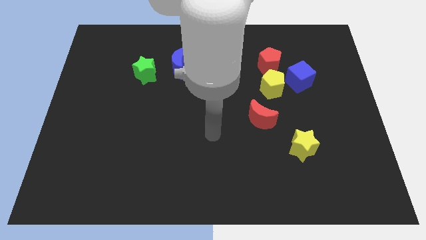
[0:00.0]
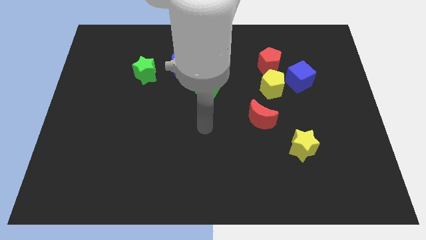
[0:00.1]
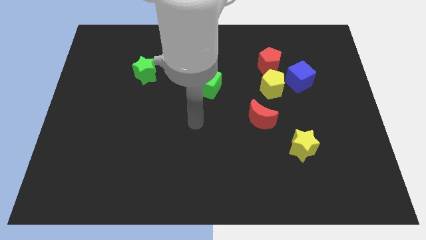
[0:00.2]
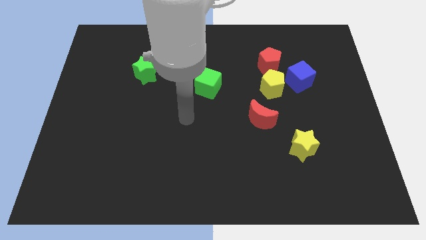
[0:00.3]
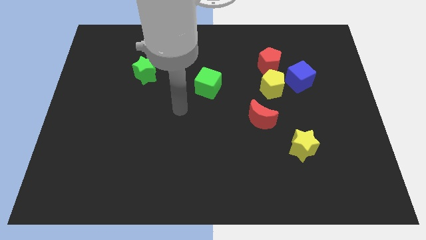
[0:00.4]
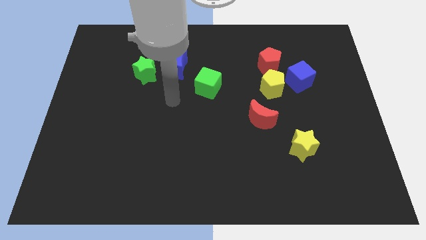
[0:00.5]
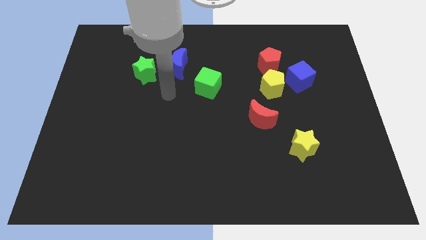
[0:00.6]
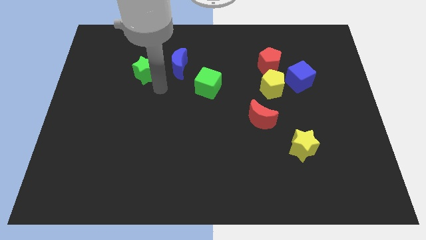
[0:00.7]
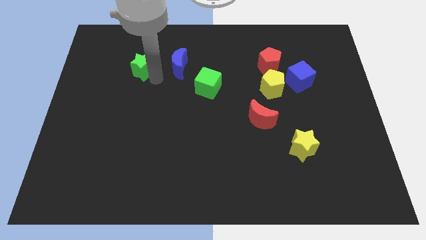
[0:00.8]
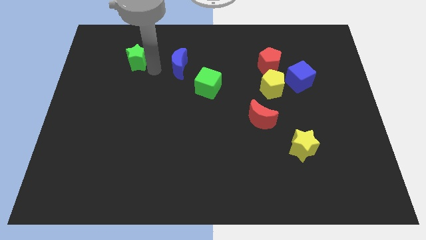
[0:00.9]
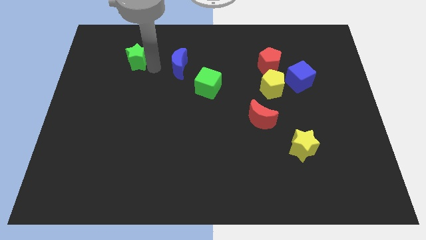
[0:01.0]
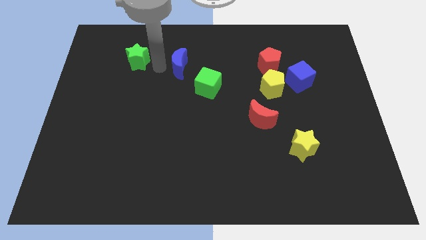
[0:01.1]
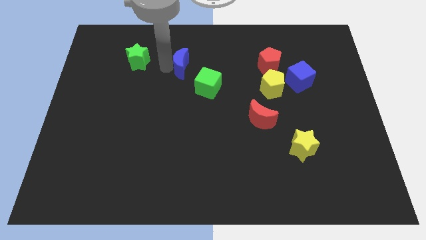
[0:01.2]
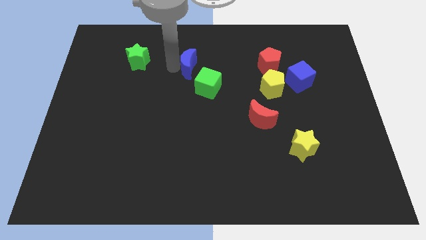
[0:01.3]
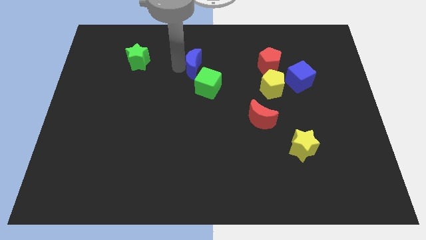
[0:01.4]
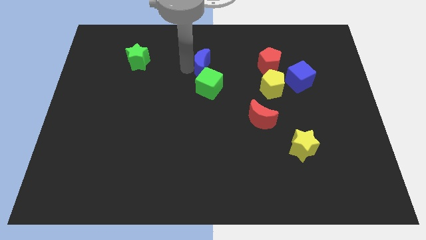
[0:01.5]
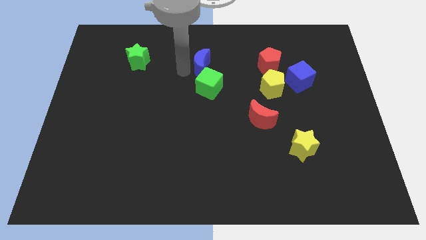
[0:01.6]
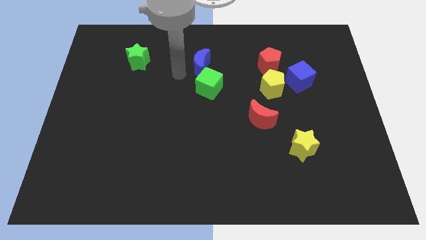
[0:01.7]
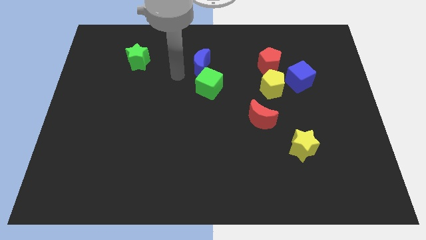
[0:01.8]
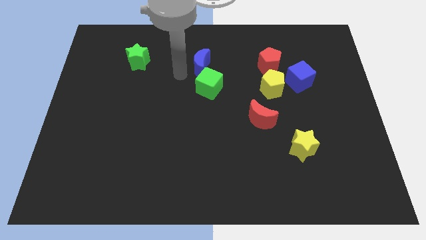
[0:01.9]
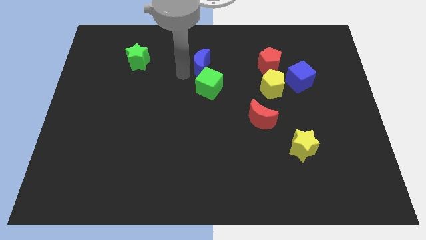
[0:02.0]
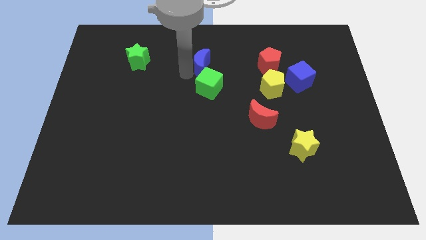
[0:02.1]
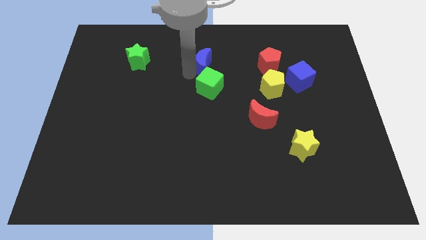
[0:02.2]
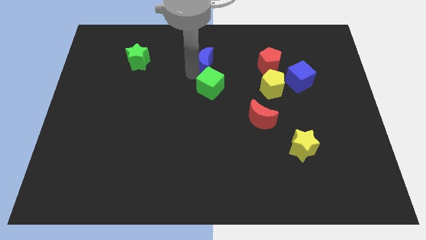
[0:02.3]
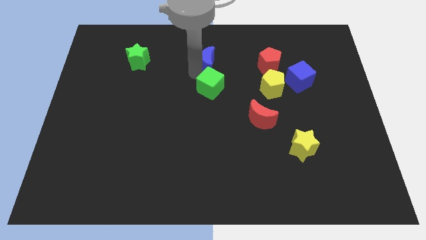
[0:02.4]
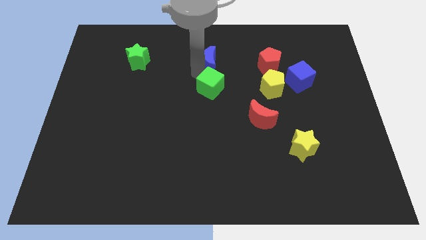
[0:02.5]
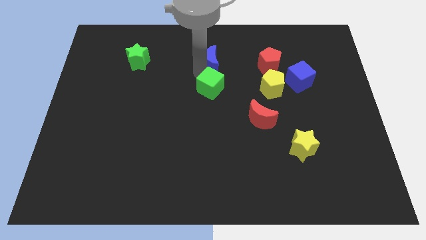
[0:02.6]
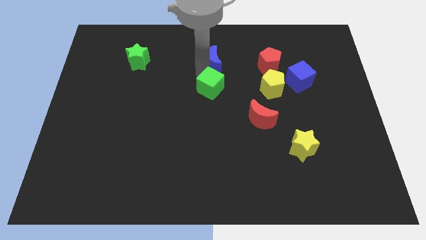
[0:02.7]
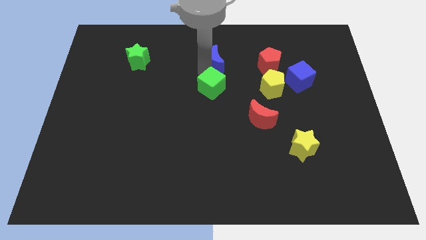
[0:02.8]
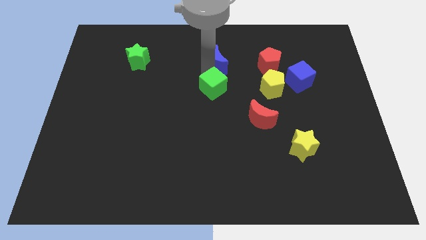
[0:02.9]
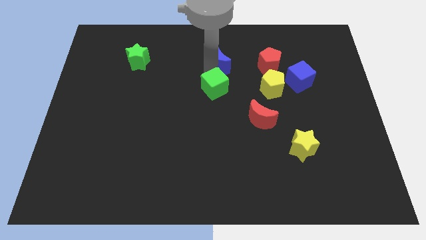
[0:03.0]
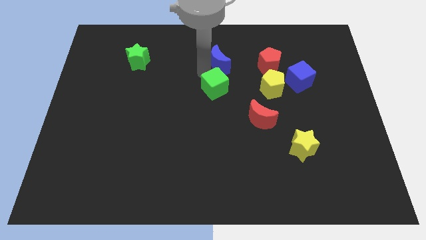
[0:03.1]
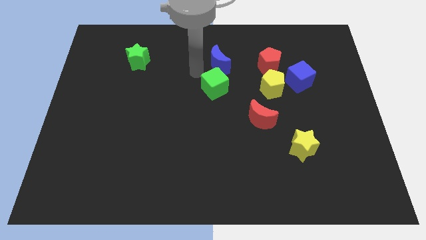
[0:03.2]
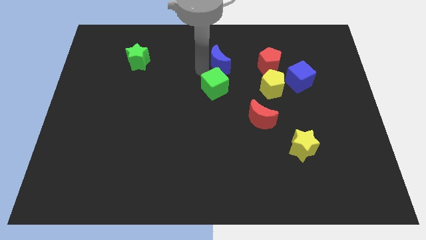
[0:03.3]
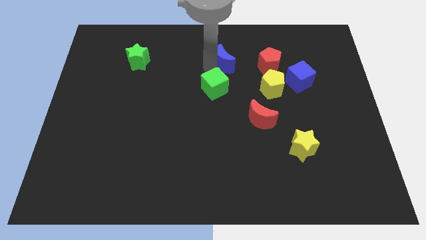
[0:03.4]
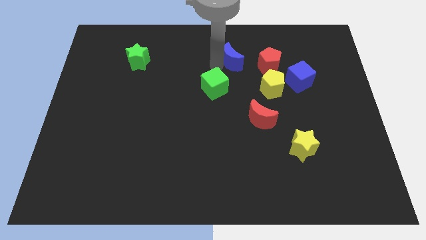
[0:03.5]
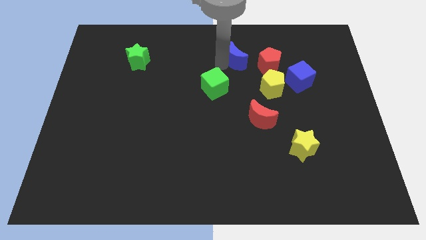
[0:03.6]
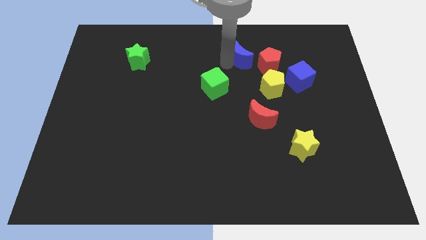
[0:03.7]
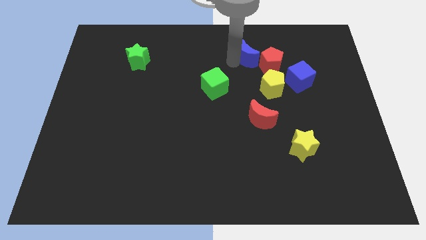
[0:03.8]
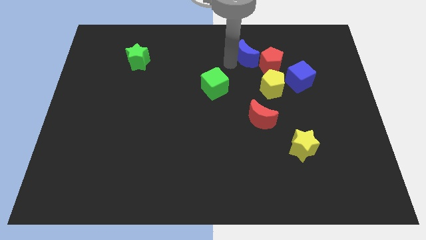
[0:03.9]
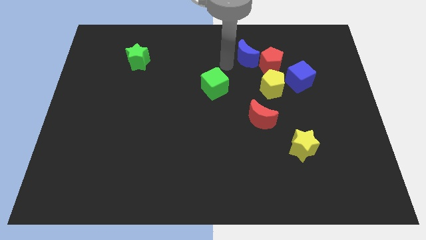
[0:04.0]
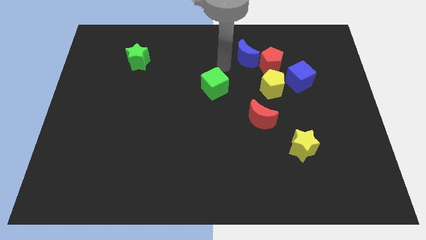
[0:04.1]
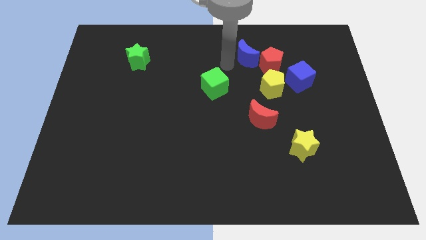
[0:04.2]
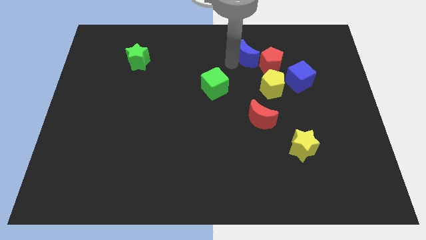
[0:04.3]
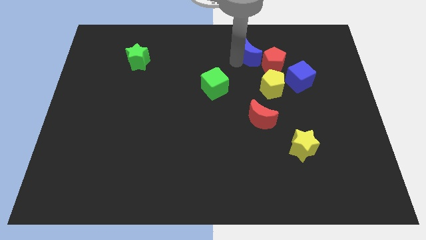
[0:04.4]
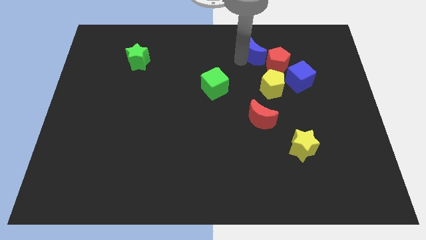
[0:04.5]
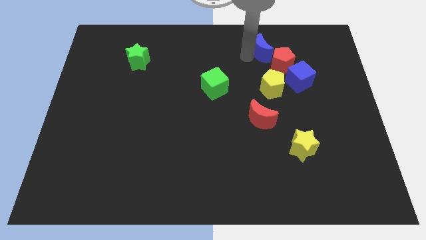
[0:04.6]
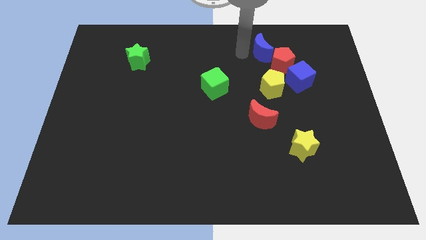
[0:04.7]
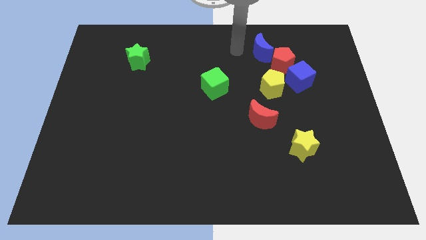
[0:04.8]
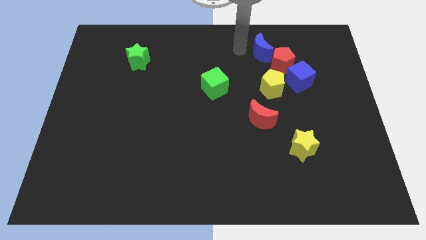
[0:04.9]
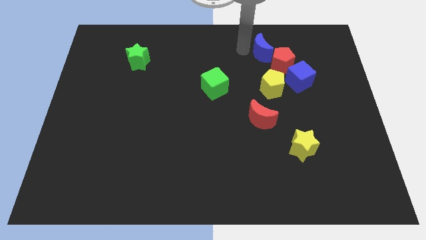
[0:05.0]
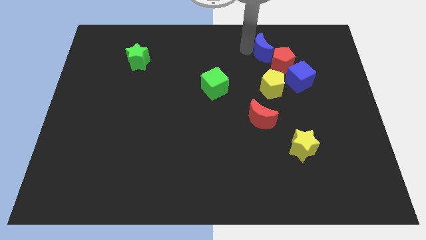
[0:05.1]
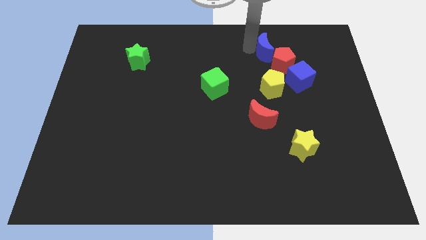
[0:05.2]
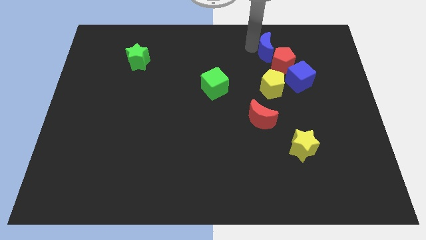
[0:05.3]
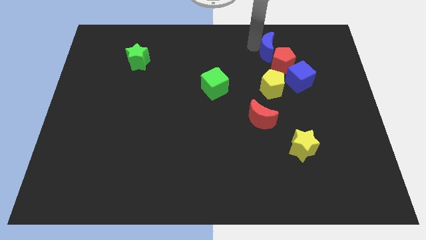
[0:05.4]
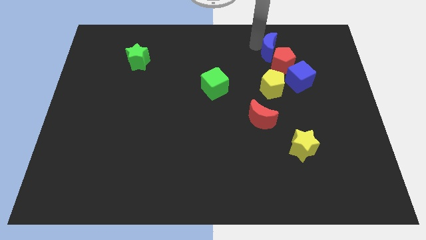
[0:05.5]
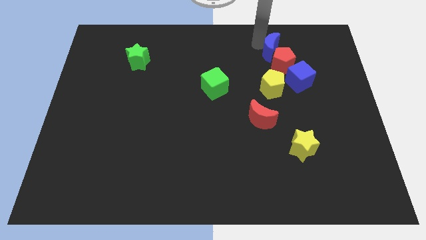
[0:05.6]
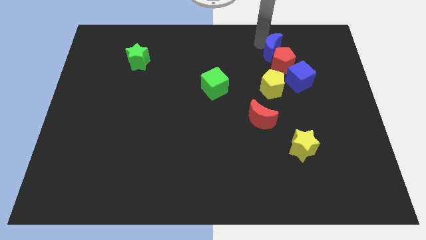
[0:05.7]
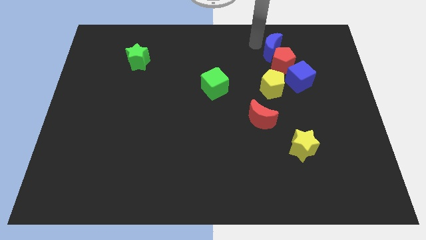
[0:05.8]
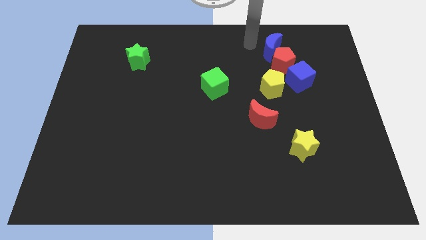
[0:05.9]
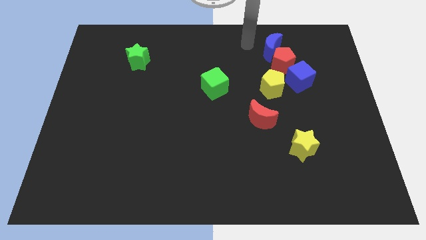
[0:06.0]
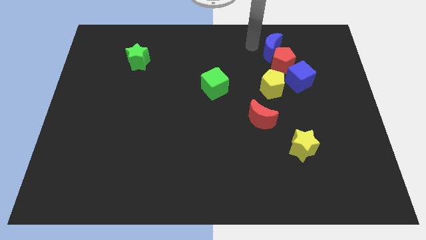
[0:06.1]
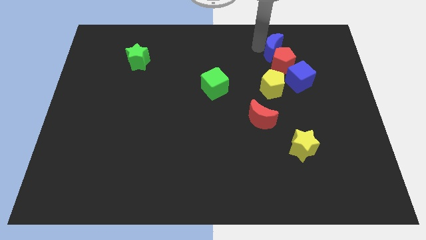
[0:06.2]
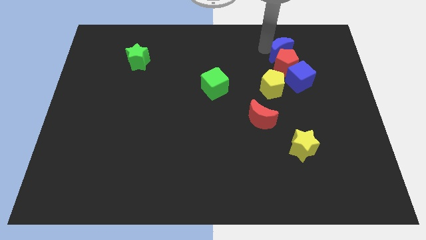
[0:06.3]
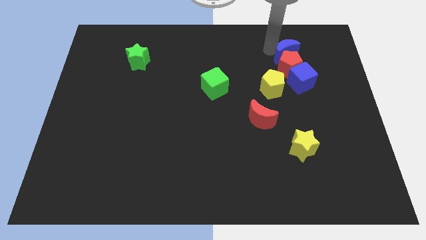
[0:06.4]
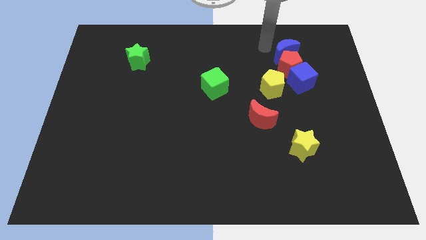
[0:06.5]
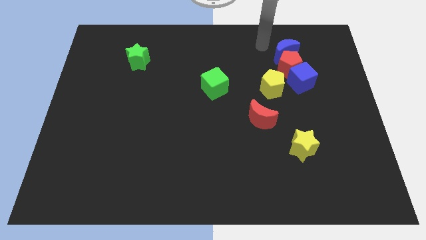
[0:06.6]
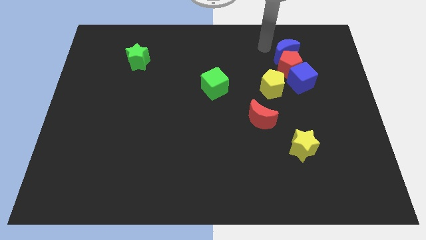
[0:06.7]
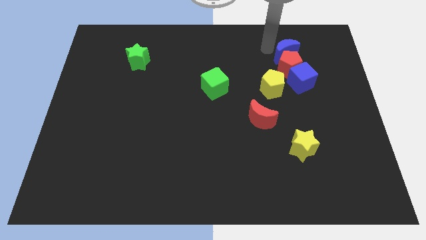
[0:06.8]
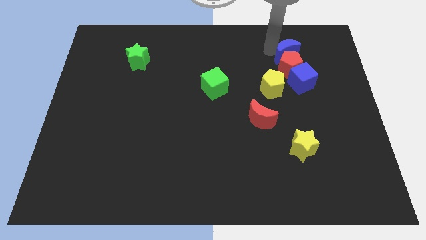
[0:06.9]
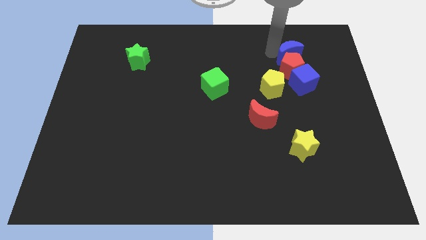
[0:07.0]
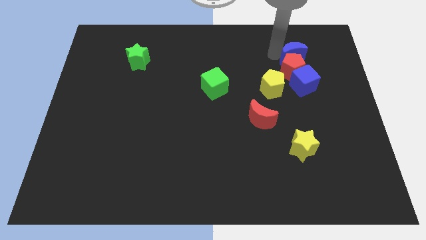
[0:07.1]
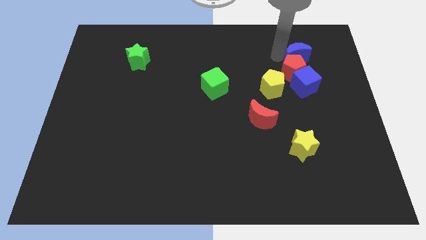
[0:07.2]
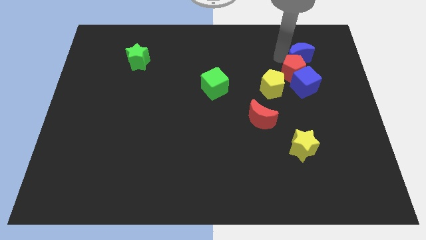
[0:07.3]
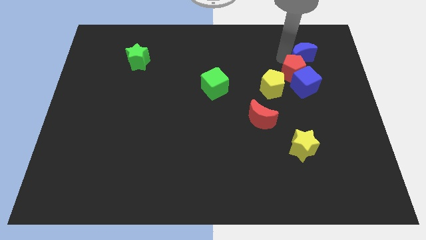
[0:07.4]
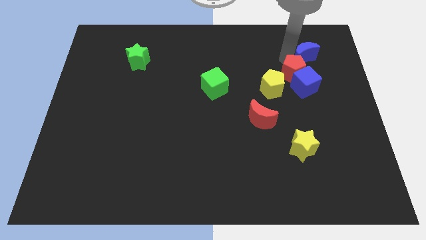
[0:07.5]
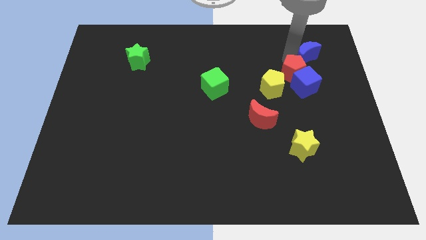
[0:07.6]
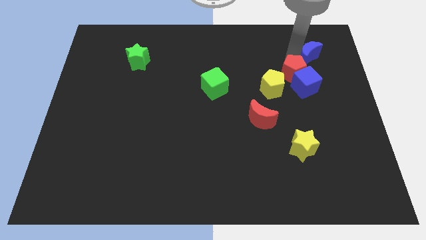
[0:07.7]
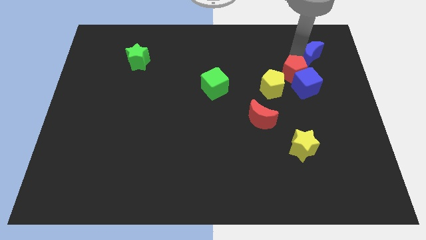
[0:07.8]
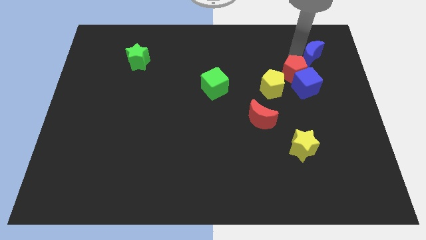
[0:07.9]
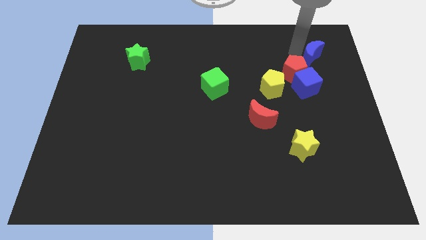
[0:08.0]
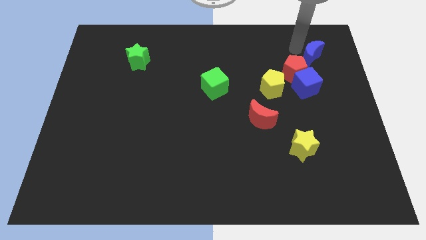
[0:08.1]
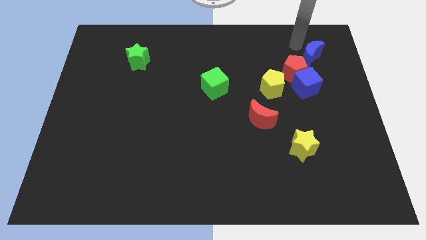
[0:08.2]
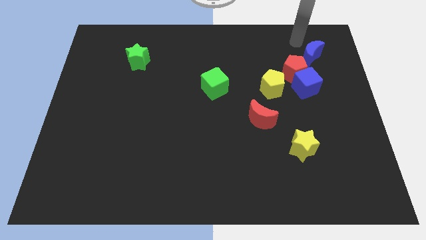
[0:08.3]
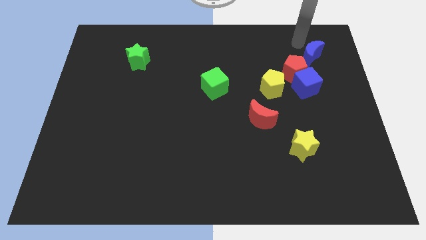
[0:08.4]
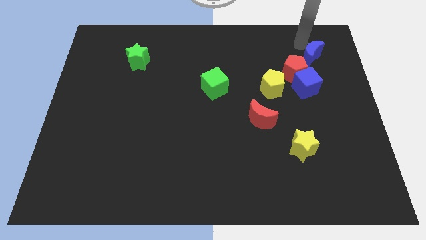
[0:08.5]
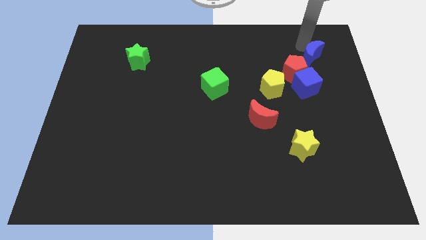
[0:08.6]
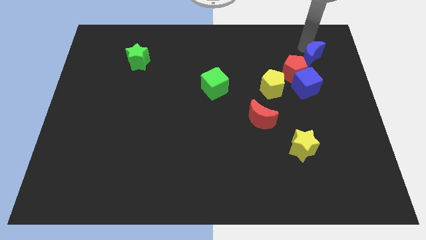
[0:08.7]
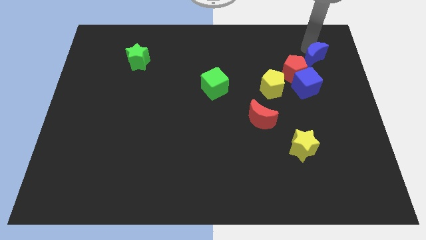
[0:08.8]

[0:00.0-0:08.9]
put the blue moon diagonally up and to the right of the blue cube
